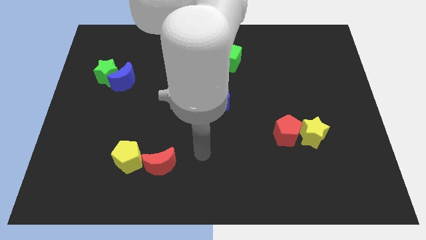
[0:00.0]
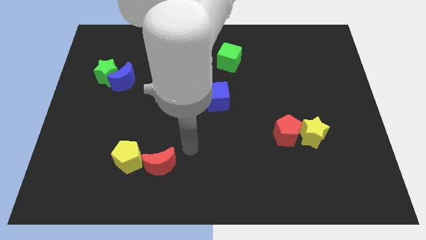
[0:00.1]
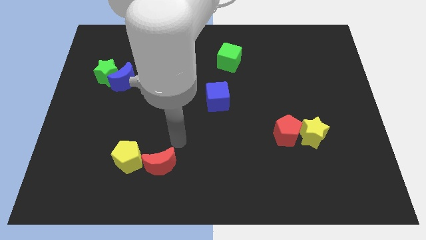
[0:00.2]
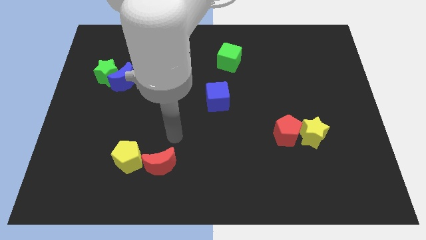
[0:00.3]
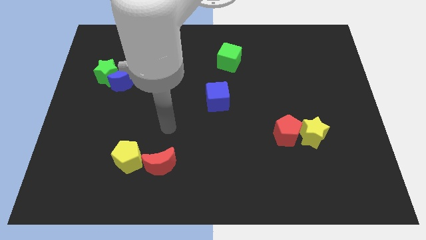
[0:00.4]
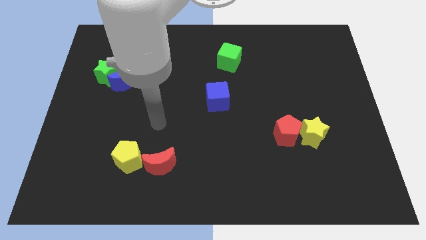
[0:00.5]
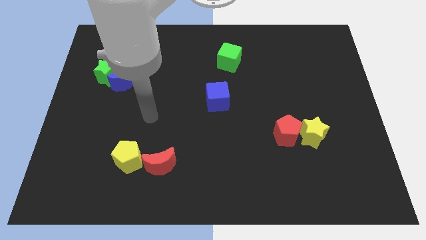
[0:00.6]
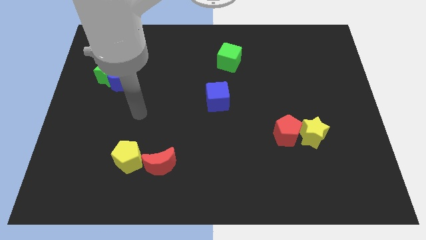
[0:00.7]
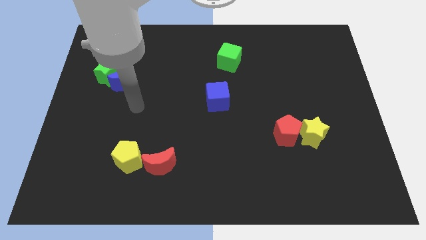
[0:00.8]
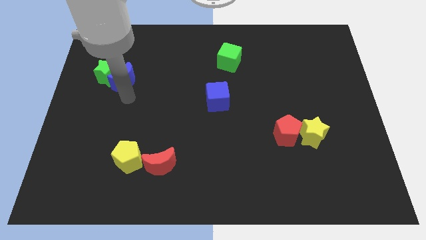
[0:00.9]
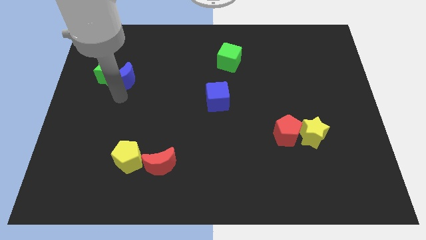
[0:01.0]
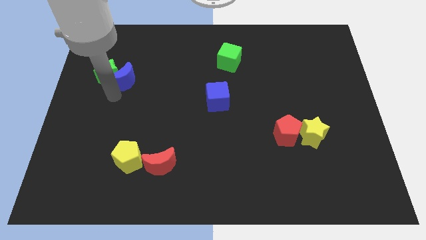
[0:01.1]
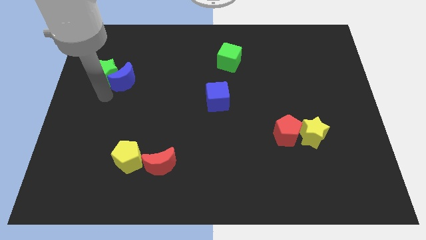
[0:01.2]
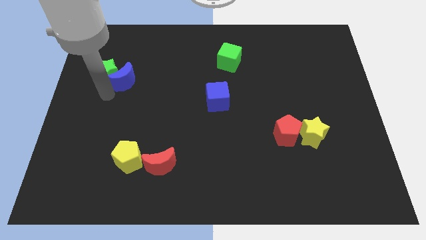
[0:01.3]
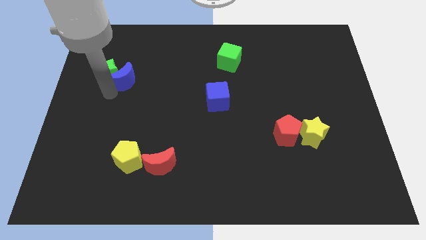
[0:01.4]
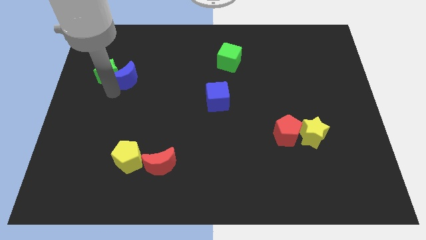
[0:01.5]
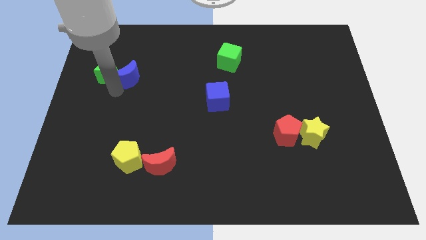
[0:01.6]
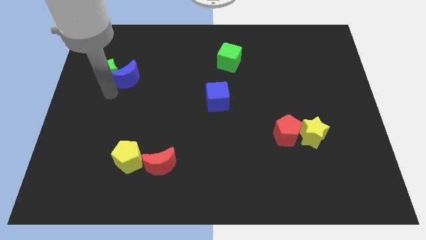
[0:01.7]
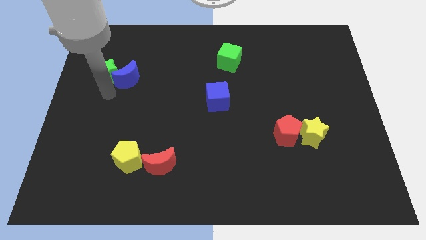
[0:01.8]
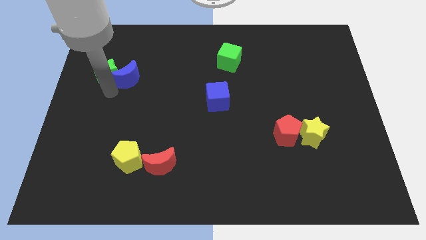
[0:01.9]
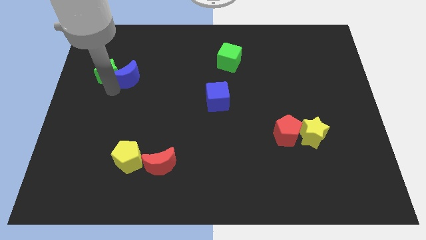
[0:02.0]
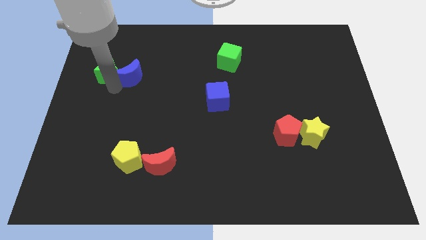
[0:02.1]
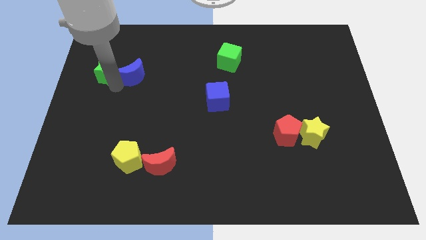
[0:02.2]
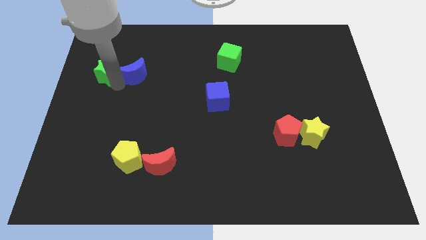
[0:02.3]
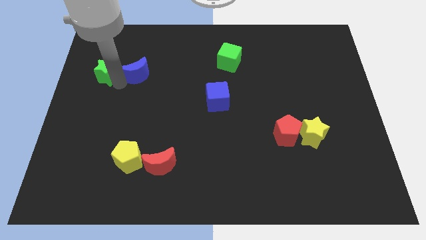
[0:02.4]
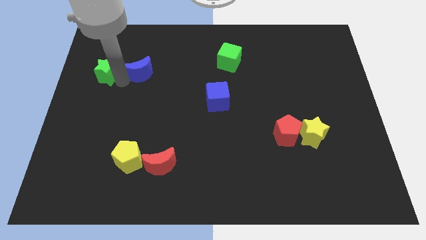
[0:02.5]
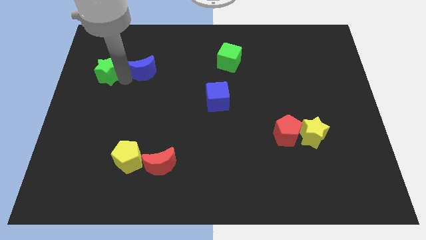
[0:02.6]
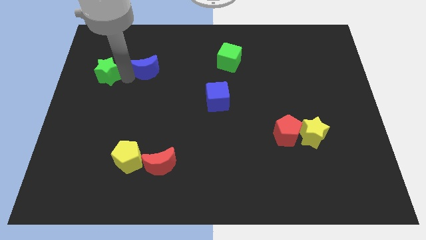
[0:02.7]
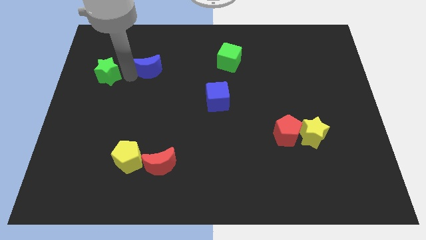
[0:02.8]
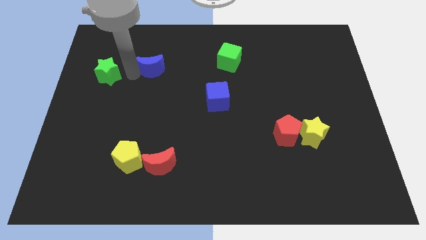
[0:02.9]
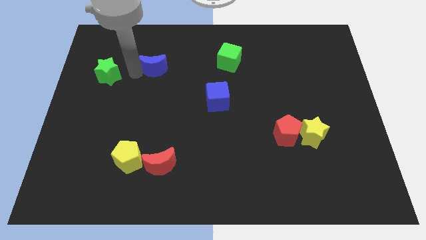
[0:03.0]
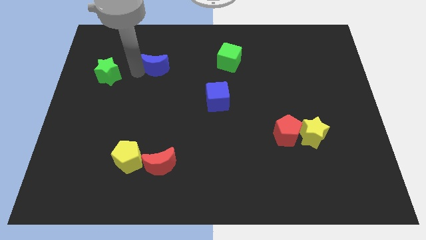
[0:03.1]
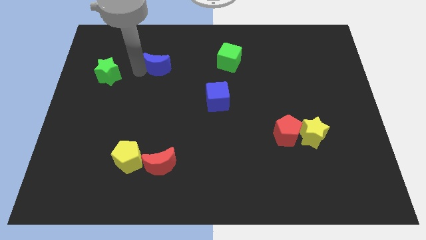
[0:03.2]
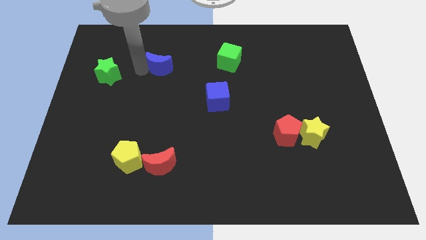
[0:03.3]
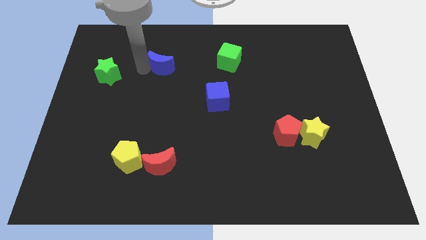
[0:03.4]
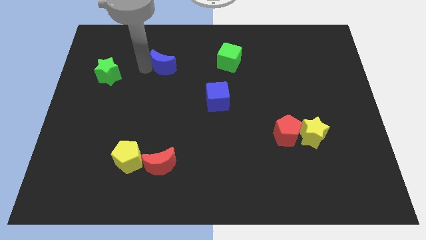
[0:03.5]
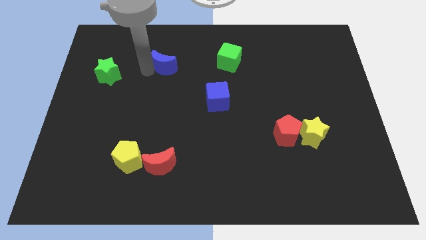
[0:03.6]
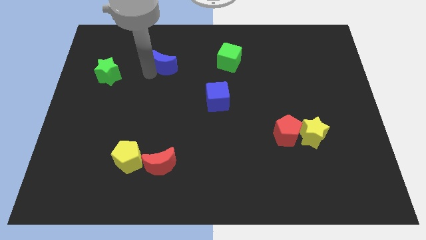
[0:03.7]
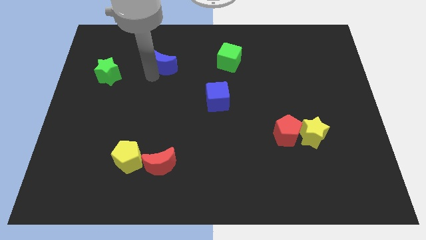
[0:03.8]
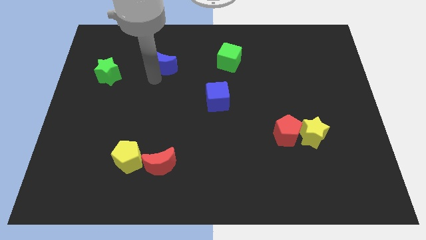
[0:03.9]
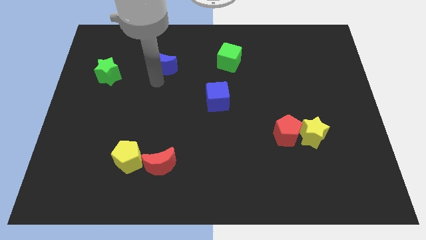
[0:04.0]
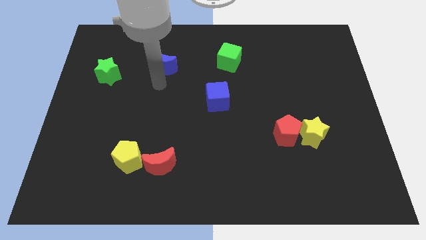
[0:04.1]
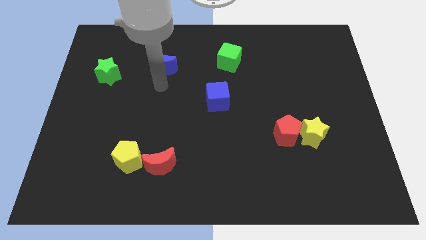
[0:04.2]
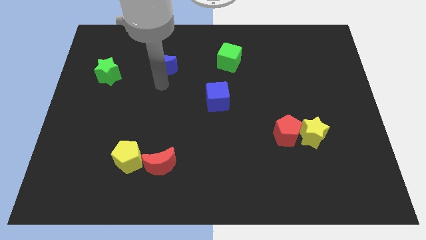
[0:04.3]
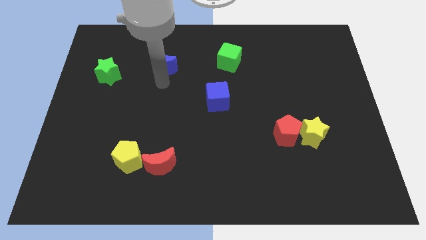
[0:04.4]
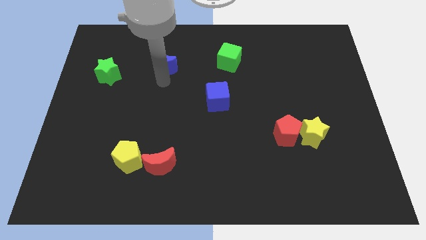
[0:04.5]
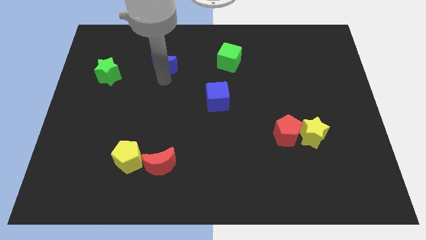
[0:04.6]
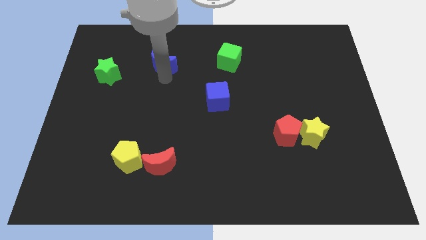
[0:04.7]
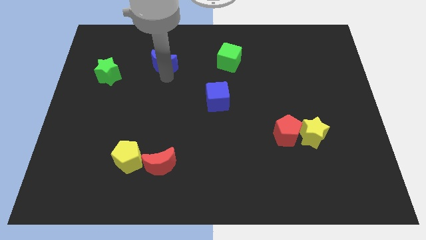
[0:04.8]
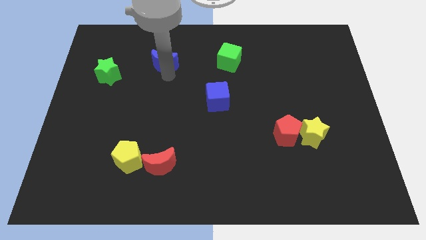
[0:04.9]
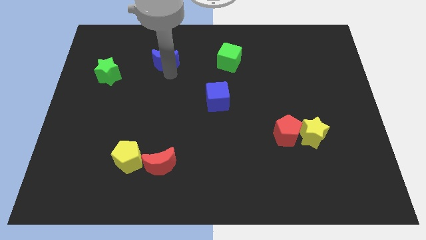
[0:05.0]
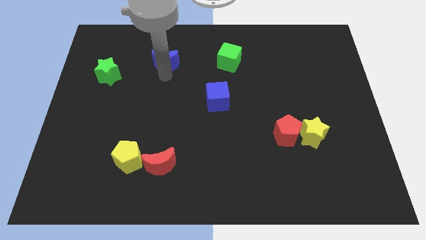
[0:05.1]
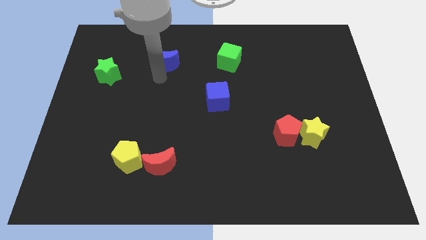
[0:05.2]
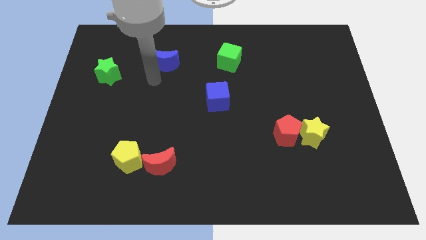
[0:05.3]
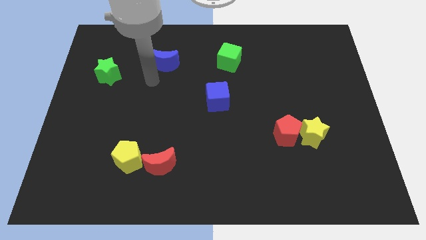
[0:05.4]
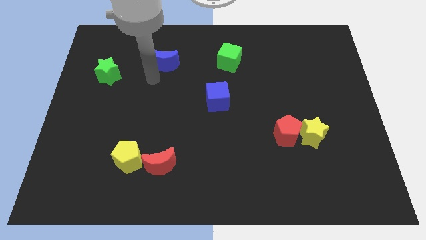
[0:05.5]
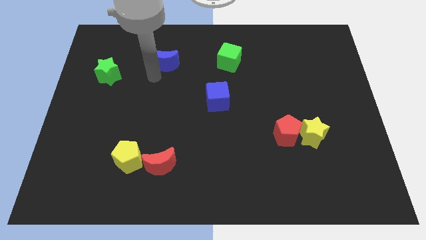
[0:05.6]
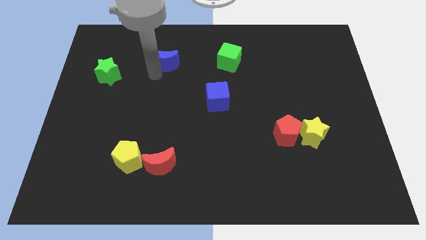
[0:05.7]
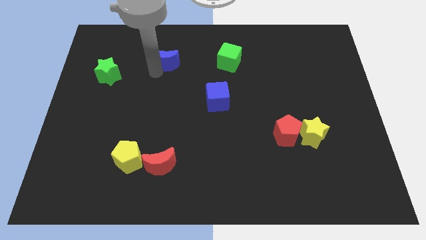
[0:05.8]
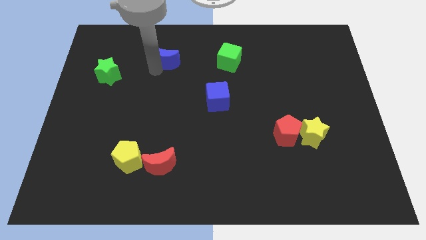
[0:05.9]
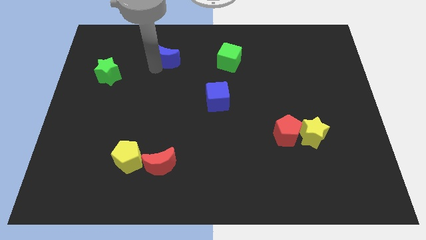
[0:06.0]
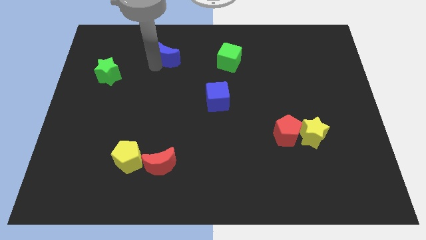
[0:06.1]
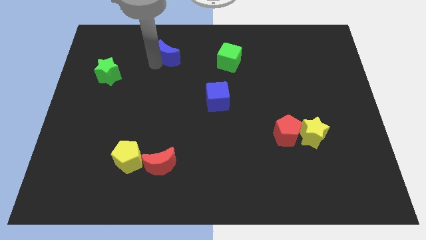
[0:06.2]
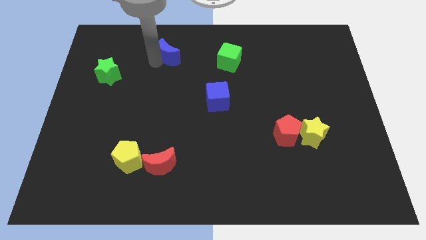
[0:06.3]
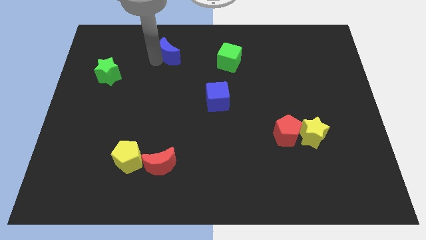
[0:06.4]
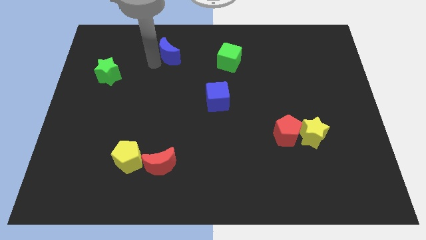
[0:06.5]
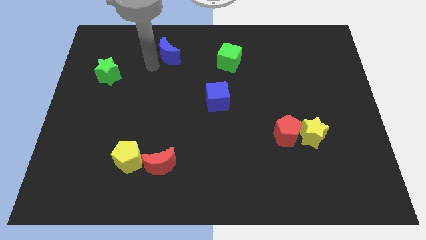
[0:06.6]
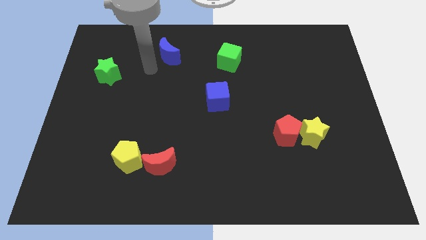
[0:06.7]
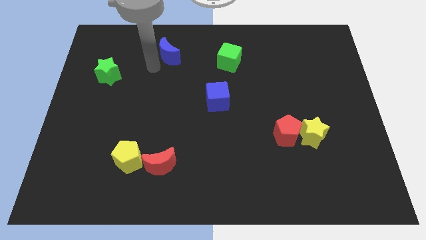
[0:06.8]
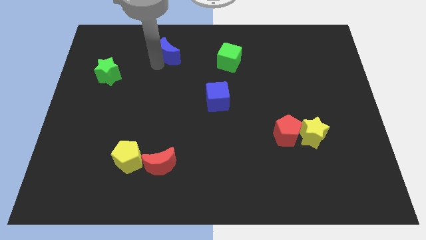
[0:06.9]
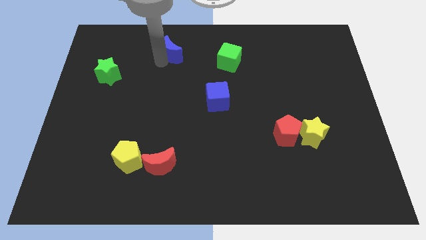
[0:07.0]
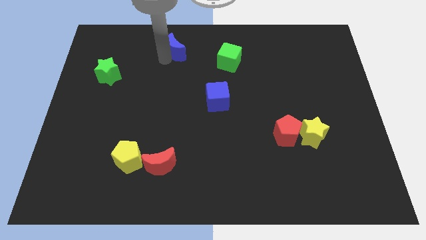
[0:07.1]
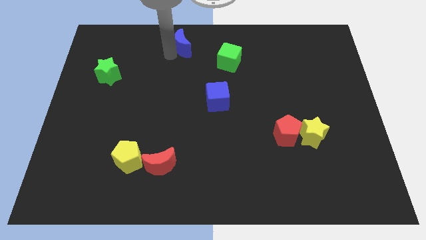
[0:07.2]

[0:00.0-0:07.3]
slide the blue moon to the top
